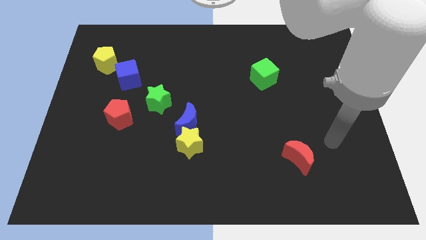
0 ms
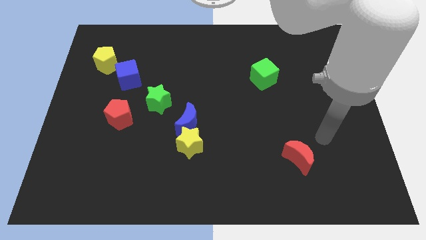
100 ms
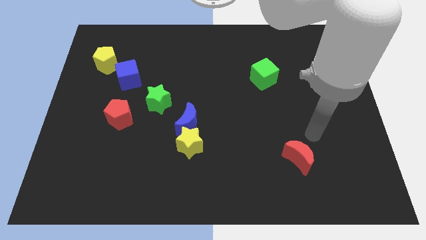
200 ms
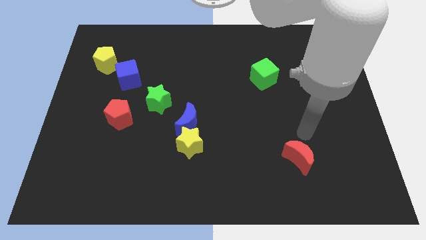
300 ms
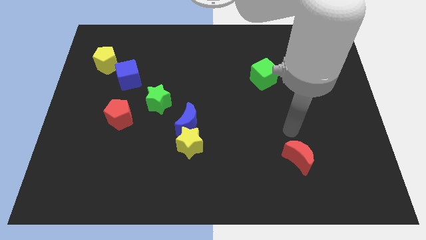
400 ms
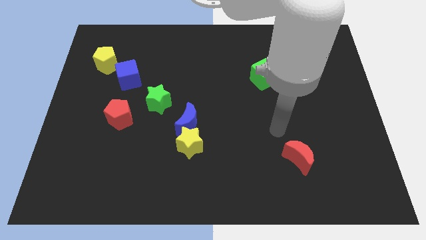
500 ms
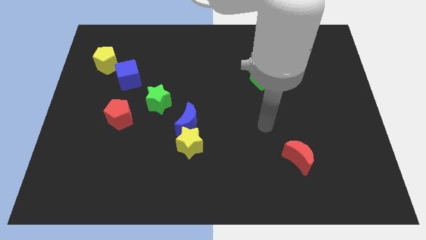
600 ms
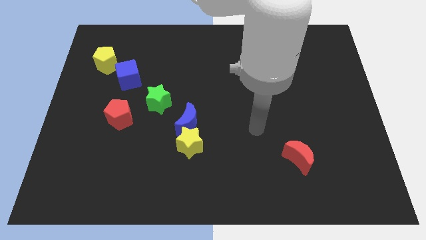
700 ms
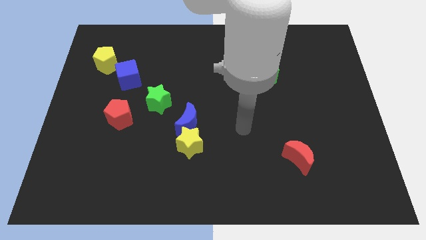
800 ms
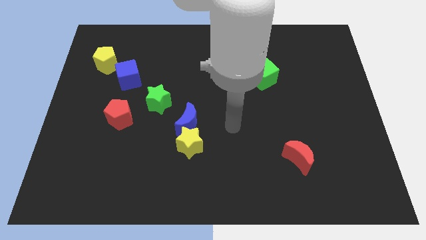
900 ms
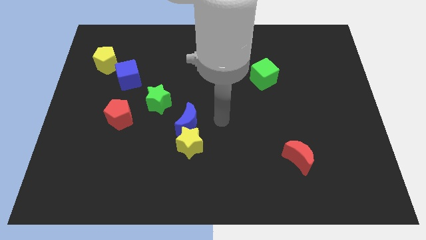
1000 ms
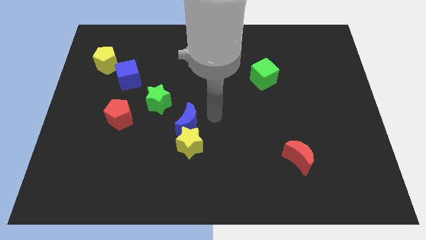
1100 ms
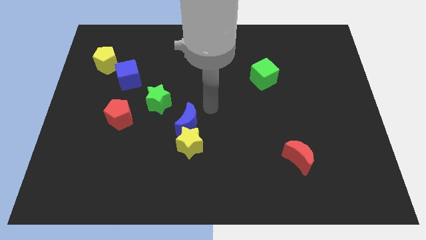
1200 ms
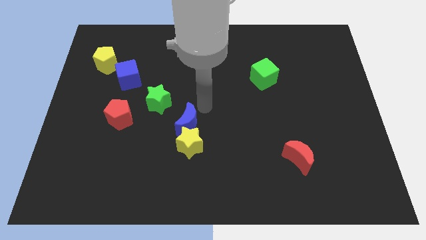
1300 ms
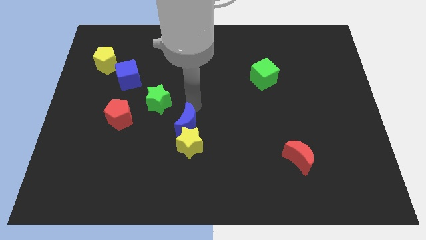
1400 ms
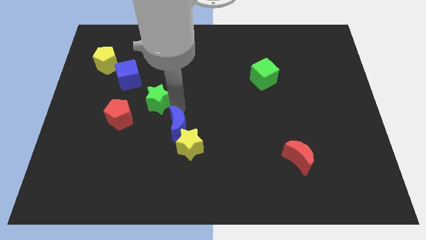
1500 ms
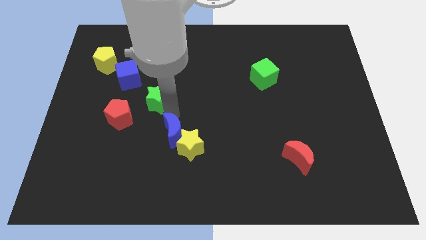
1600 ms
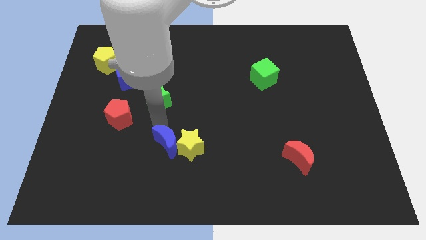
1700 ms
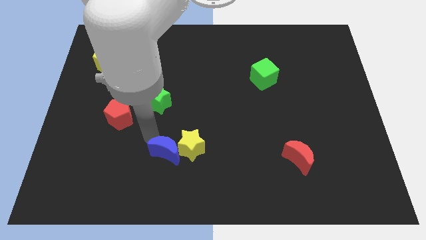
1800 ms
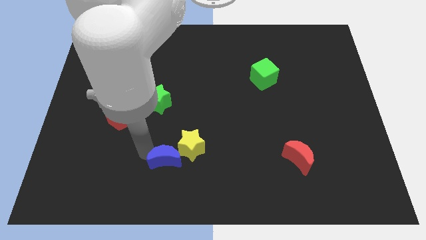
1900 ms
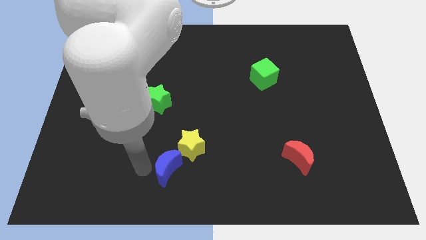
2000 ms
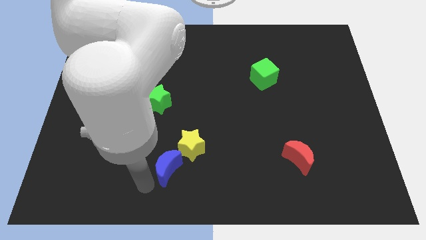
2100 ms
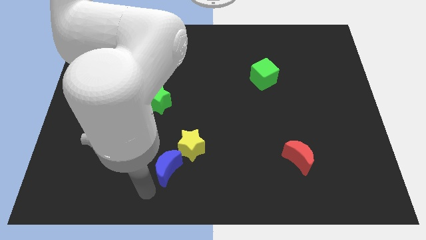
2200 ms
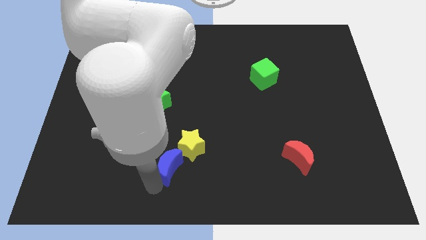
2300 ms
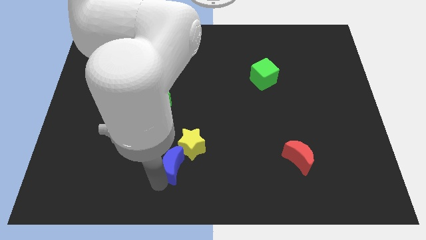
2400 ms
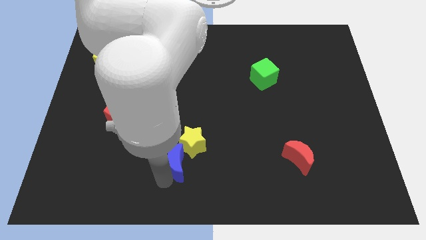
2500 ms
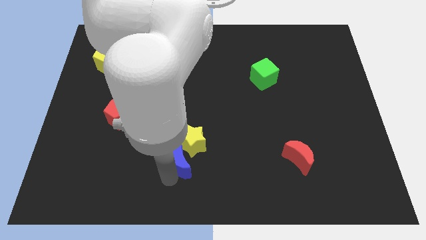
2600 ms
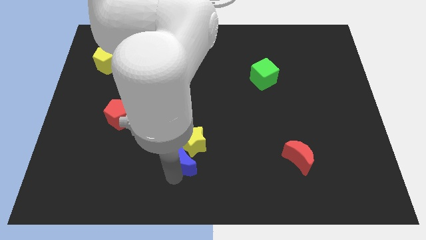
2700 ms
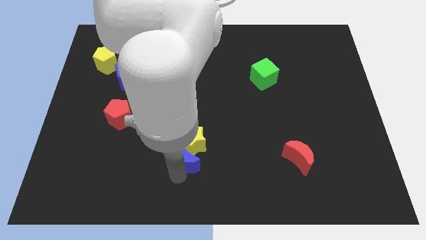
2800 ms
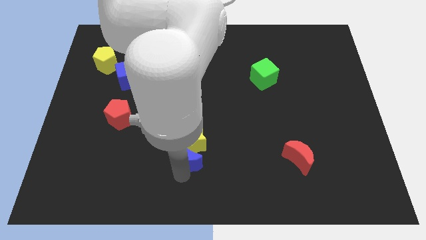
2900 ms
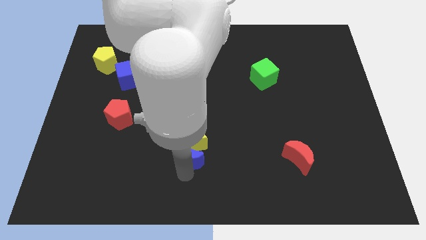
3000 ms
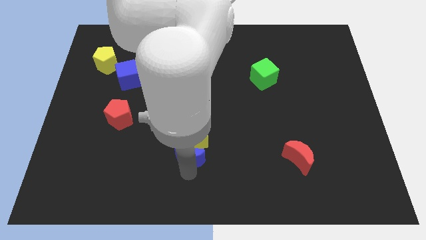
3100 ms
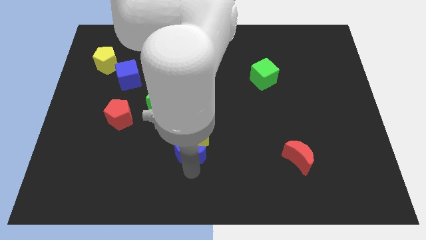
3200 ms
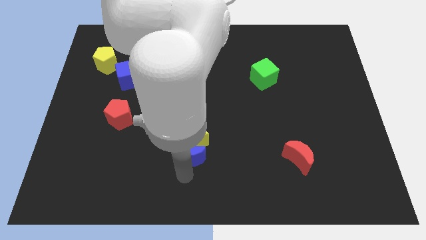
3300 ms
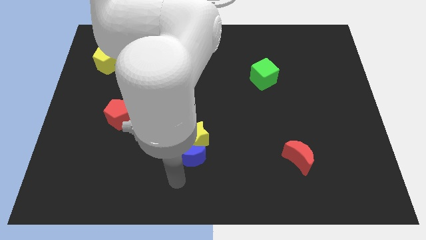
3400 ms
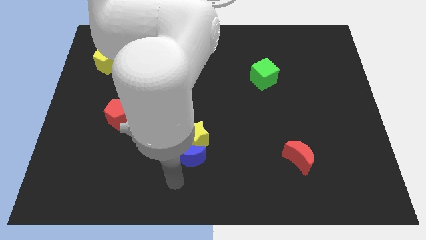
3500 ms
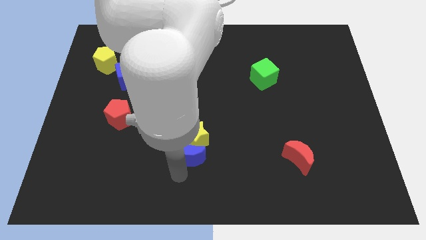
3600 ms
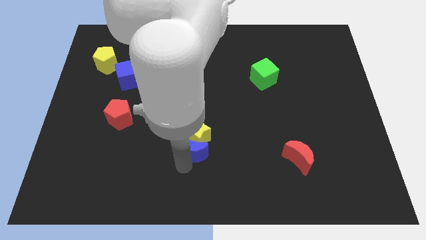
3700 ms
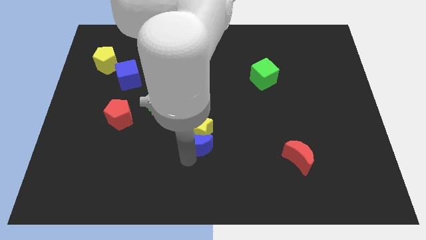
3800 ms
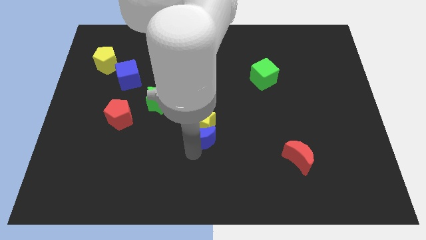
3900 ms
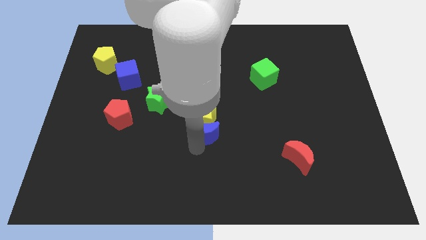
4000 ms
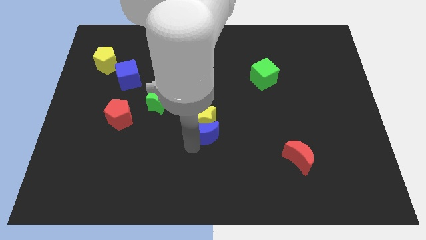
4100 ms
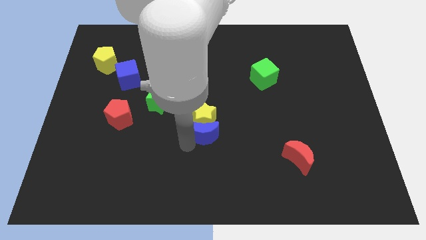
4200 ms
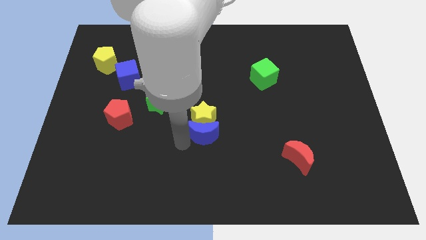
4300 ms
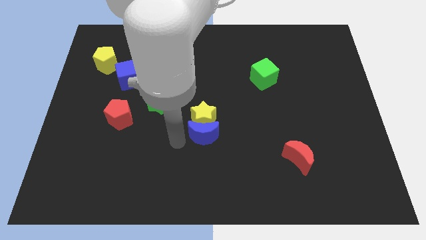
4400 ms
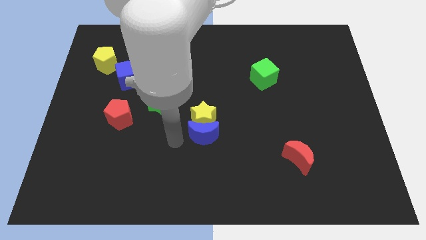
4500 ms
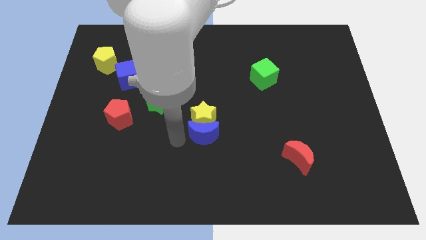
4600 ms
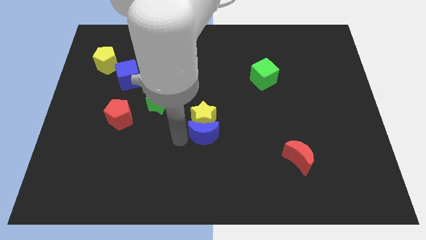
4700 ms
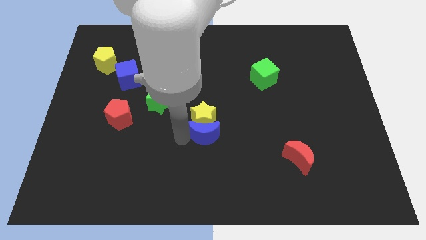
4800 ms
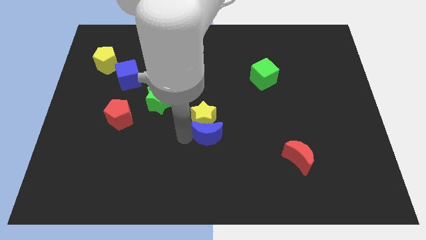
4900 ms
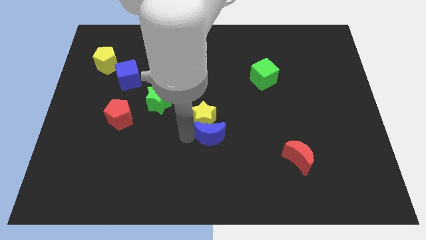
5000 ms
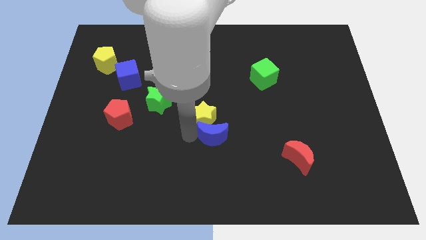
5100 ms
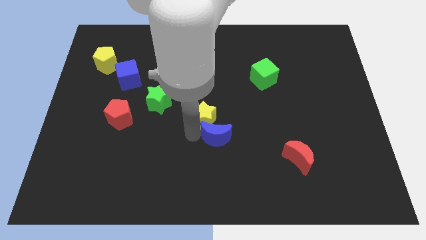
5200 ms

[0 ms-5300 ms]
move the blue moon down and then right a little bit

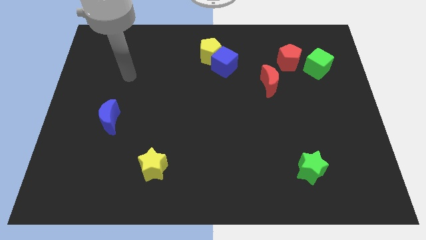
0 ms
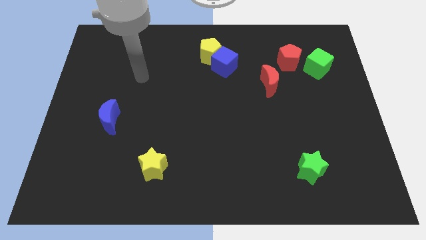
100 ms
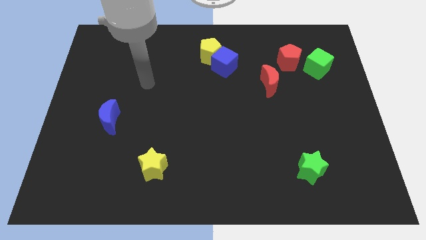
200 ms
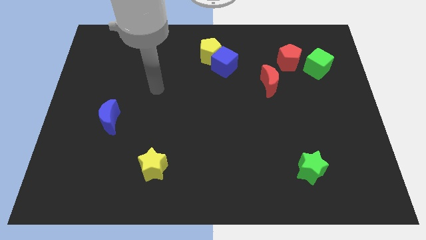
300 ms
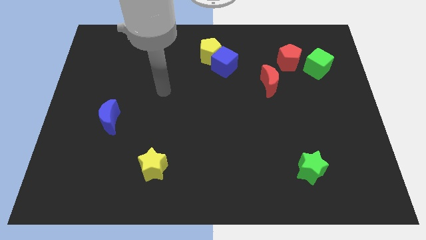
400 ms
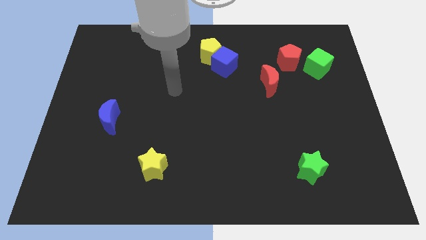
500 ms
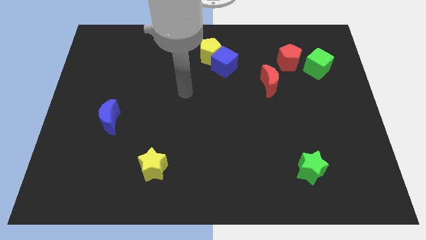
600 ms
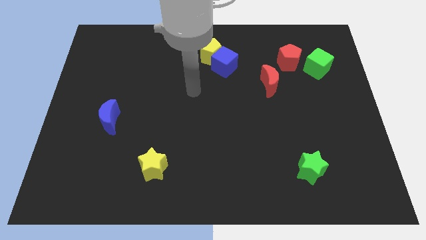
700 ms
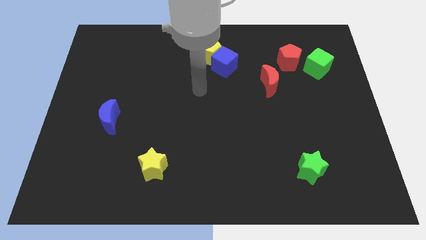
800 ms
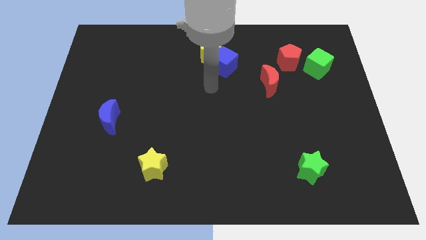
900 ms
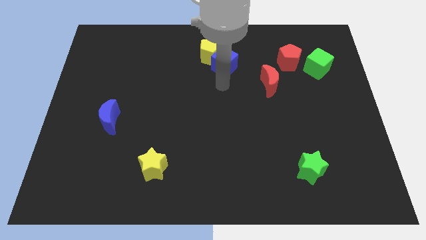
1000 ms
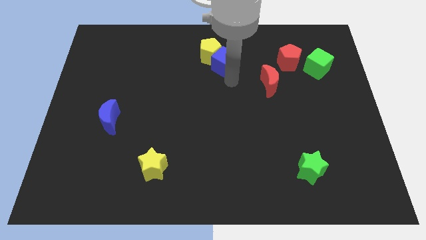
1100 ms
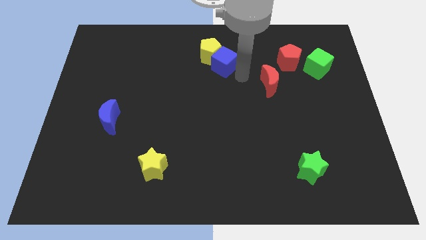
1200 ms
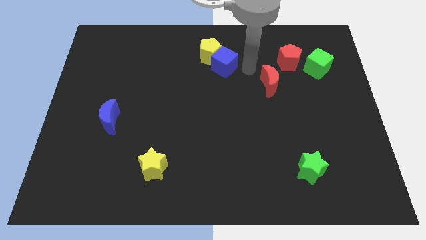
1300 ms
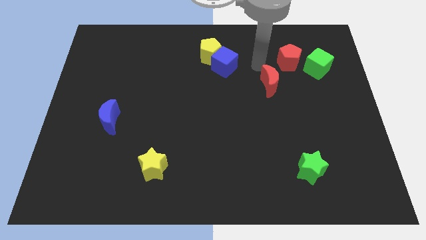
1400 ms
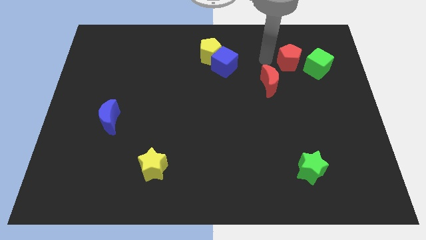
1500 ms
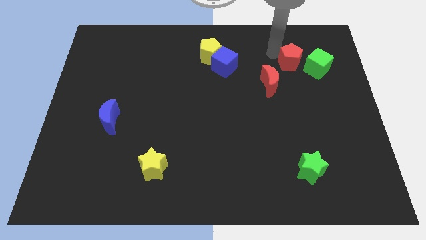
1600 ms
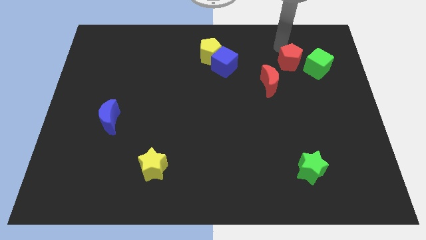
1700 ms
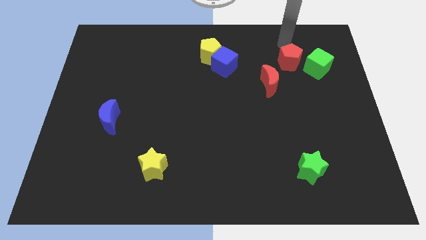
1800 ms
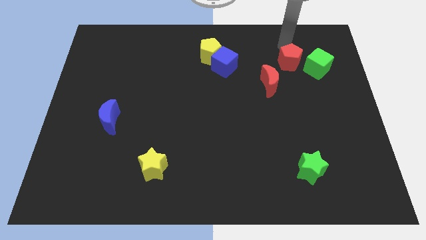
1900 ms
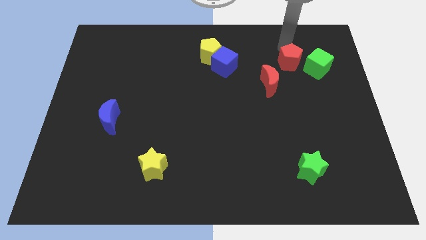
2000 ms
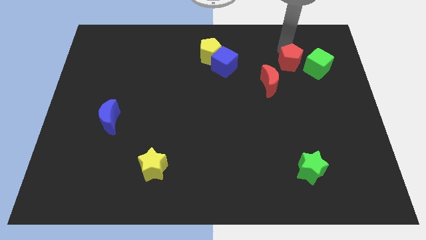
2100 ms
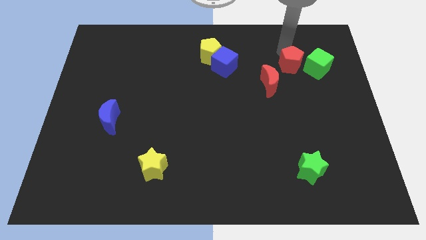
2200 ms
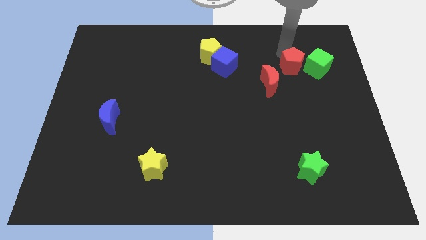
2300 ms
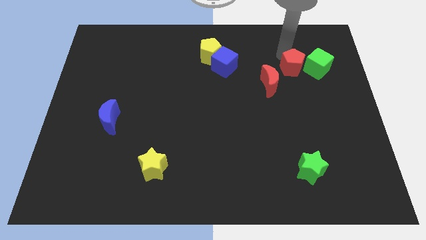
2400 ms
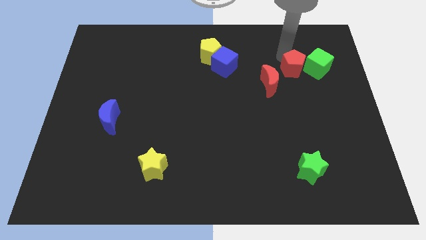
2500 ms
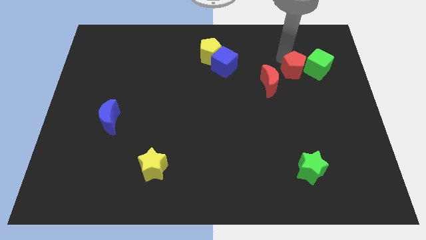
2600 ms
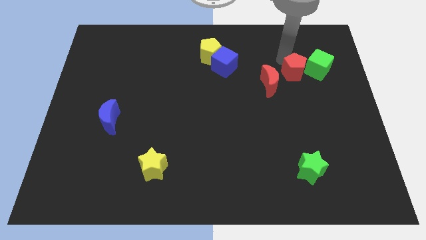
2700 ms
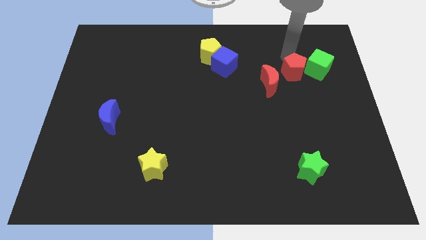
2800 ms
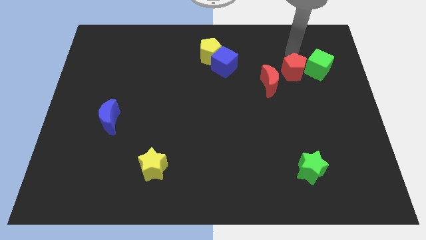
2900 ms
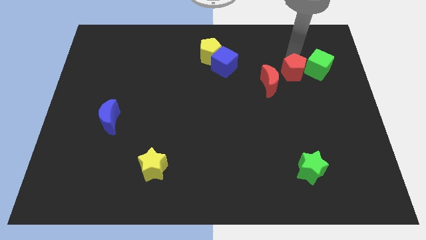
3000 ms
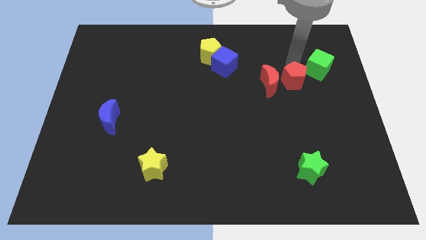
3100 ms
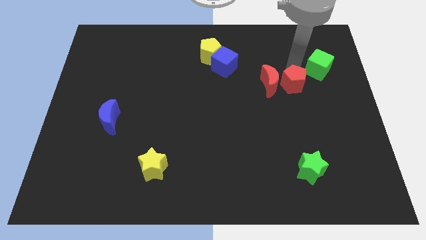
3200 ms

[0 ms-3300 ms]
slide the red pentagon downwards a little
